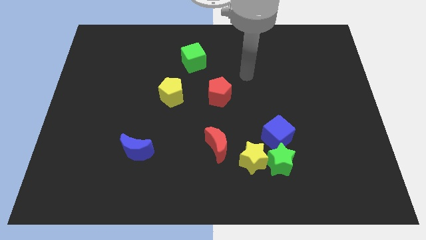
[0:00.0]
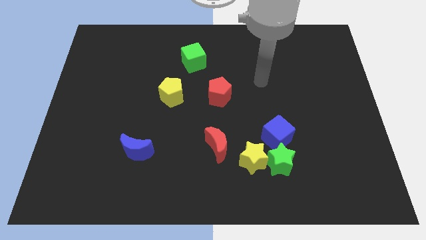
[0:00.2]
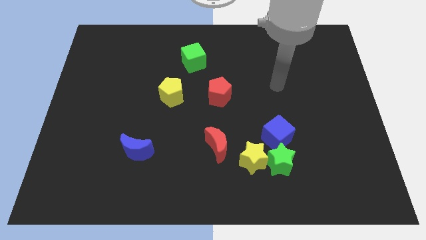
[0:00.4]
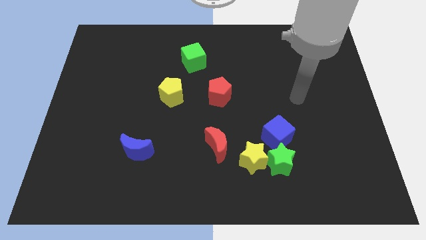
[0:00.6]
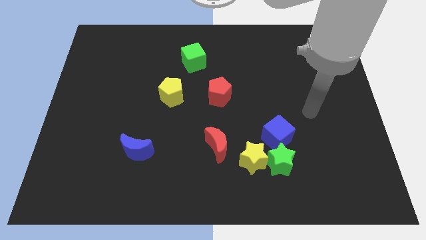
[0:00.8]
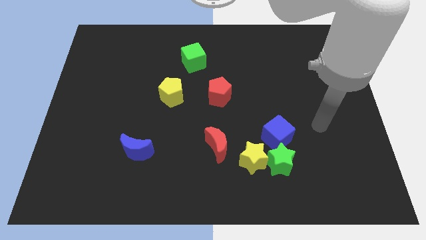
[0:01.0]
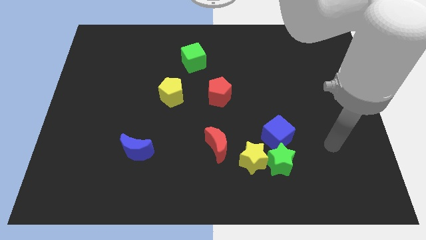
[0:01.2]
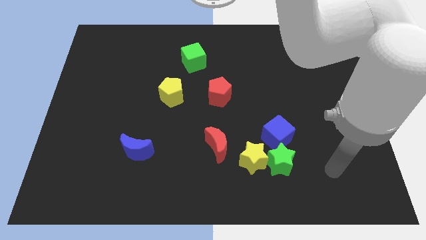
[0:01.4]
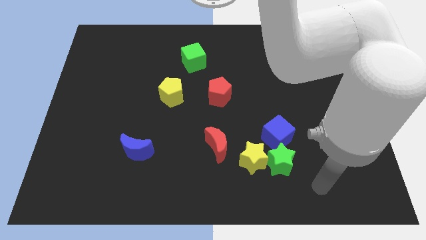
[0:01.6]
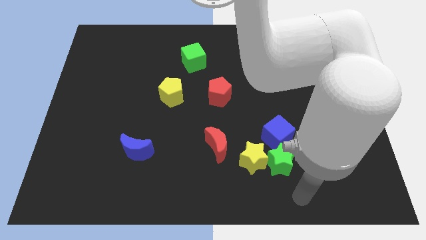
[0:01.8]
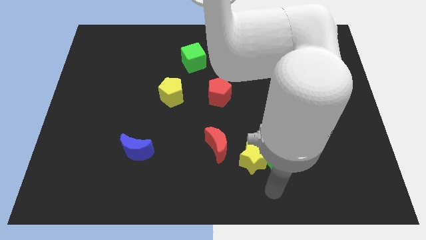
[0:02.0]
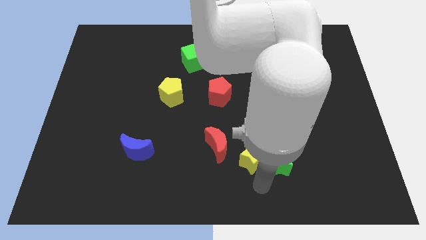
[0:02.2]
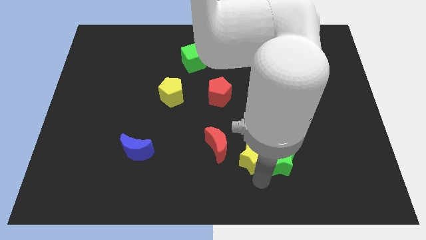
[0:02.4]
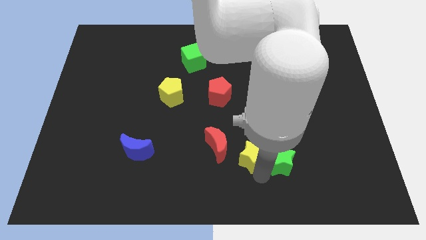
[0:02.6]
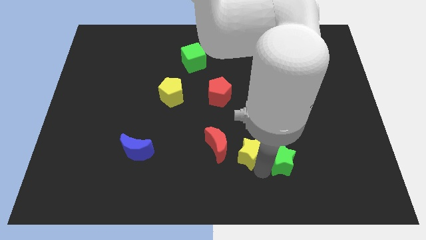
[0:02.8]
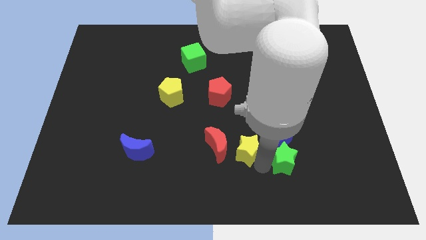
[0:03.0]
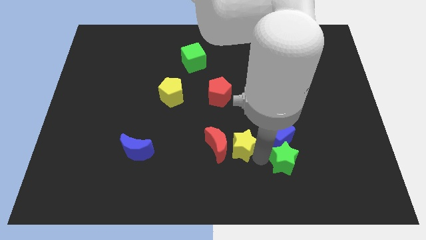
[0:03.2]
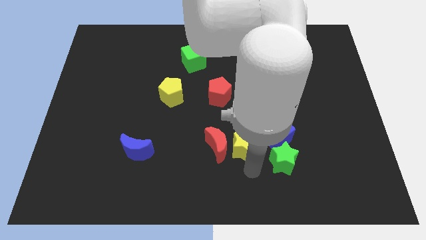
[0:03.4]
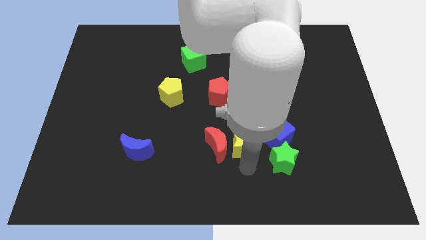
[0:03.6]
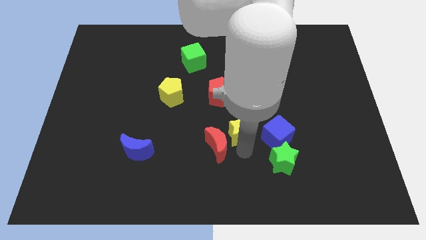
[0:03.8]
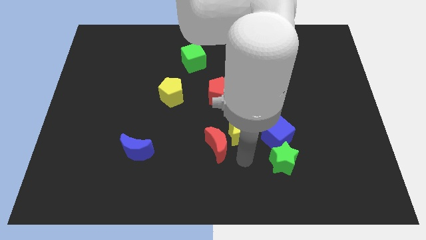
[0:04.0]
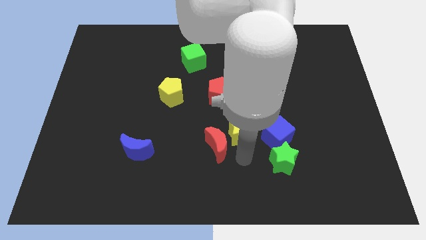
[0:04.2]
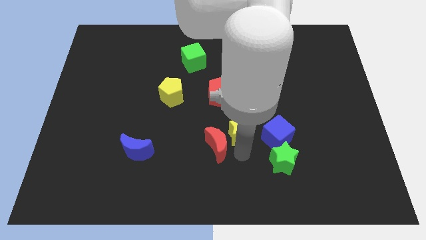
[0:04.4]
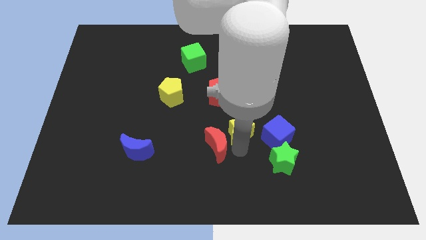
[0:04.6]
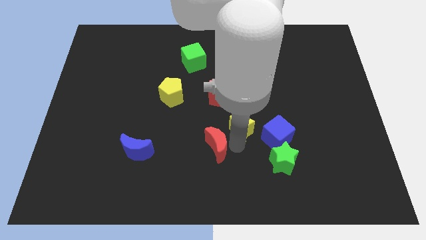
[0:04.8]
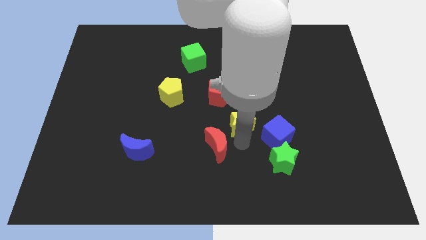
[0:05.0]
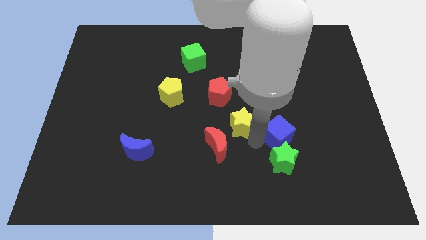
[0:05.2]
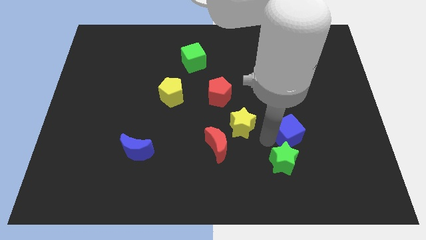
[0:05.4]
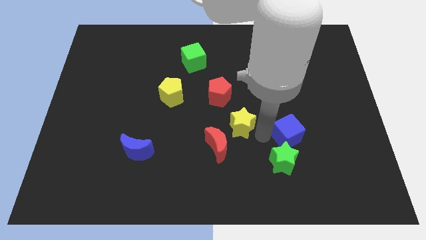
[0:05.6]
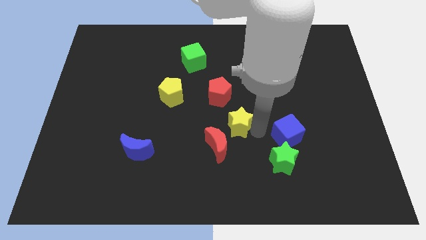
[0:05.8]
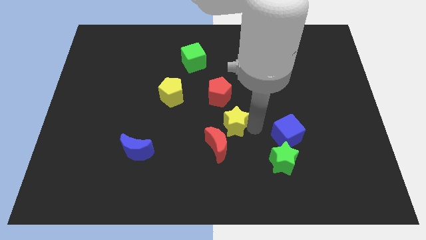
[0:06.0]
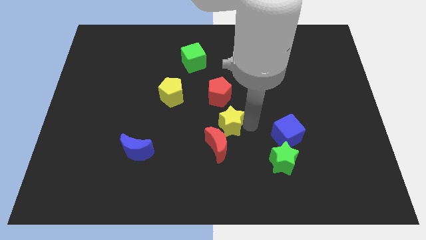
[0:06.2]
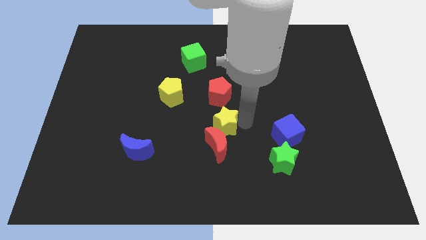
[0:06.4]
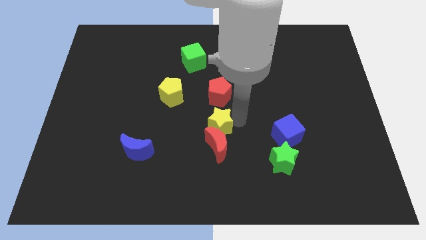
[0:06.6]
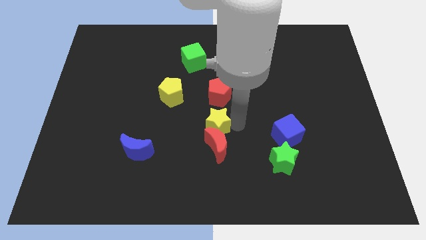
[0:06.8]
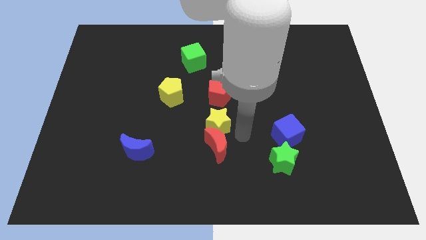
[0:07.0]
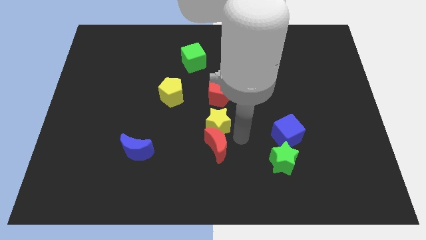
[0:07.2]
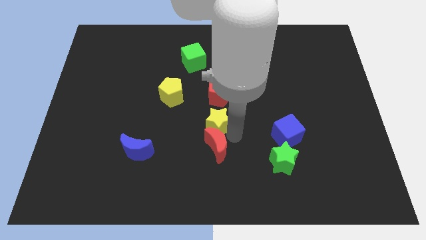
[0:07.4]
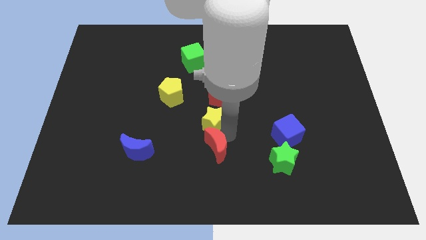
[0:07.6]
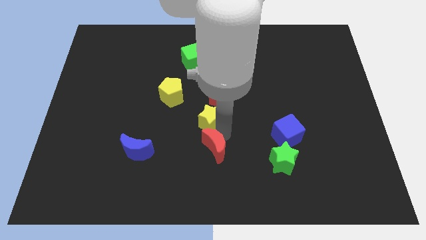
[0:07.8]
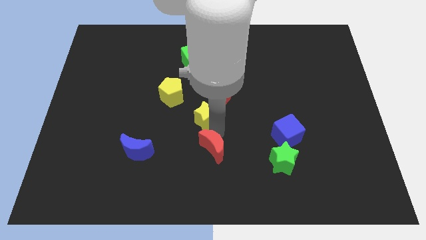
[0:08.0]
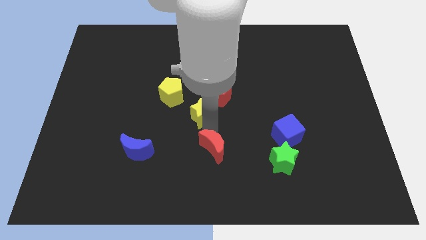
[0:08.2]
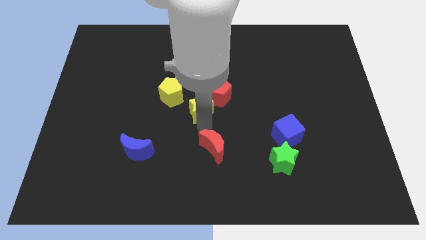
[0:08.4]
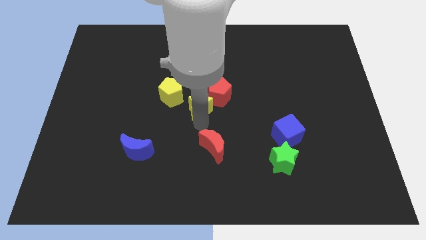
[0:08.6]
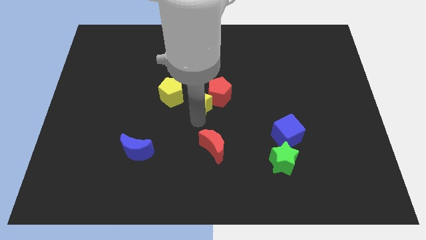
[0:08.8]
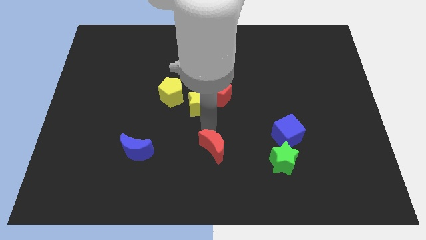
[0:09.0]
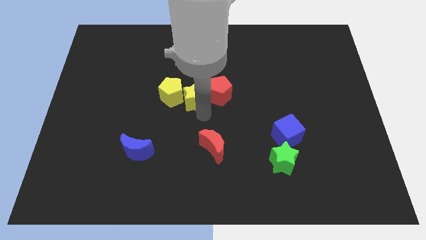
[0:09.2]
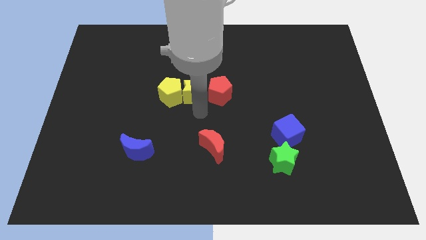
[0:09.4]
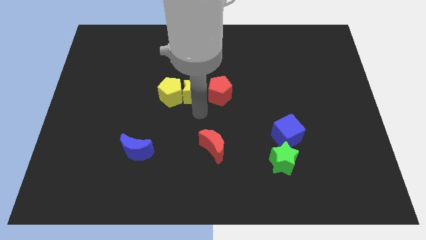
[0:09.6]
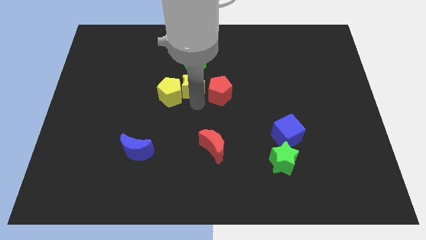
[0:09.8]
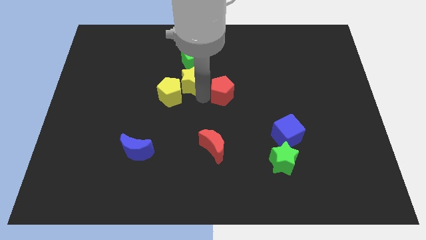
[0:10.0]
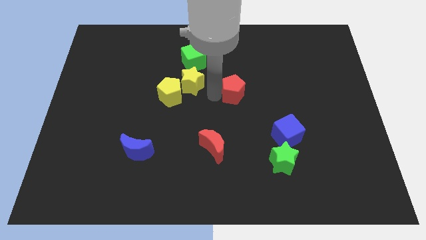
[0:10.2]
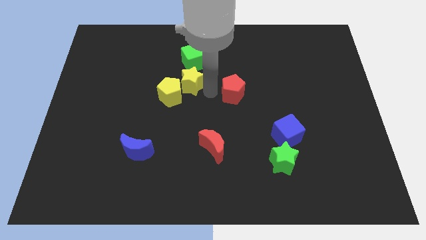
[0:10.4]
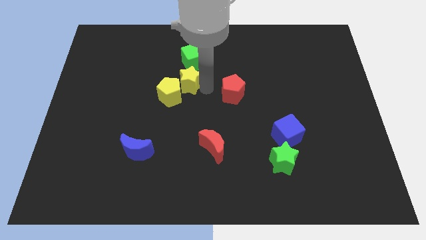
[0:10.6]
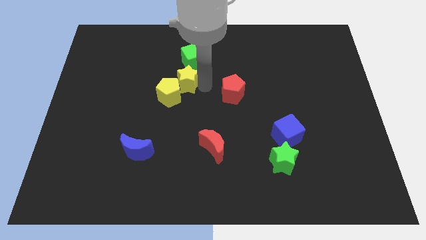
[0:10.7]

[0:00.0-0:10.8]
push the yellow star diagonally down and to the left of the green cube
